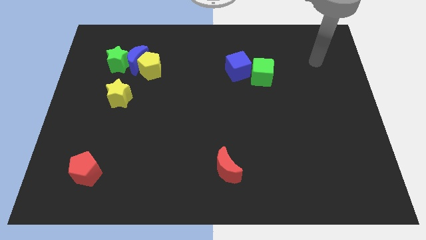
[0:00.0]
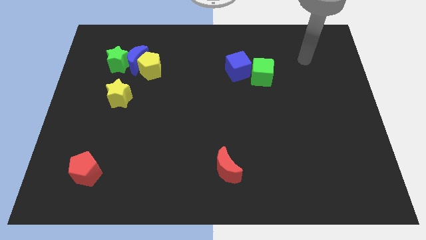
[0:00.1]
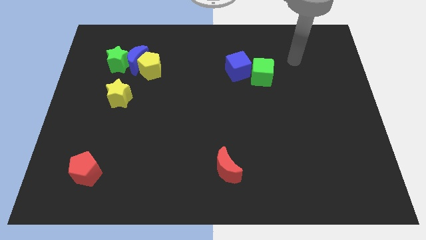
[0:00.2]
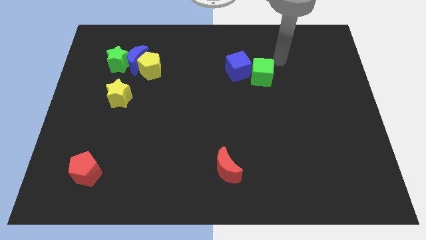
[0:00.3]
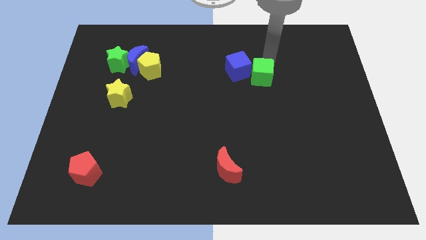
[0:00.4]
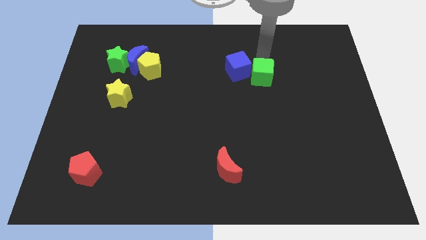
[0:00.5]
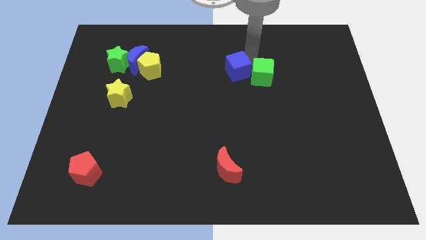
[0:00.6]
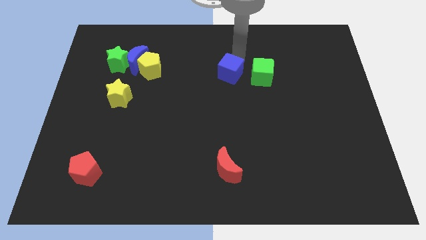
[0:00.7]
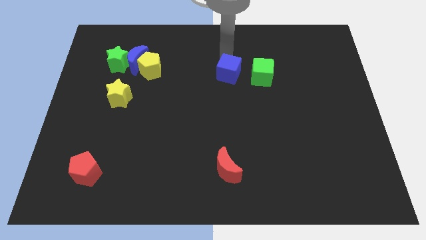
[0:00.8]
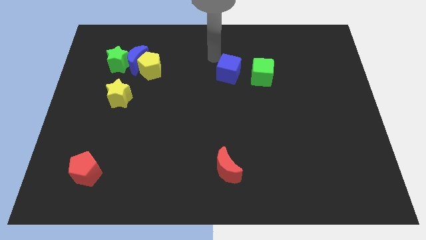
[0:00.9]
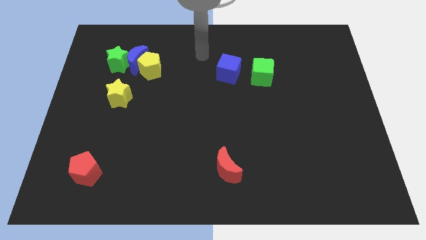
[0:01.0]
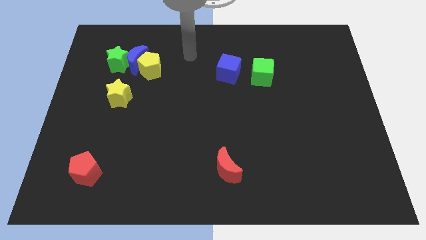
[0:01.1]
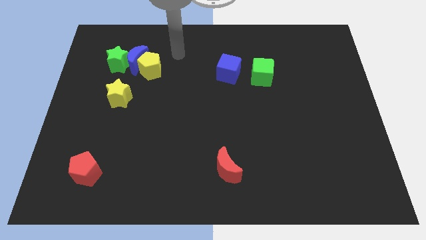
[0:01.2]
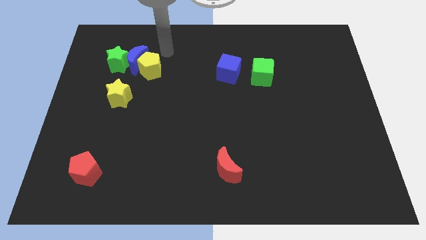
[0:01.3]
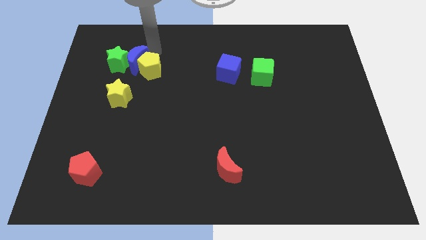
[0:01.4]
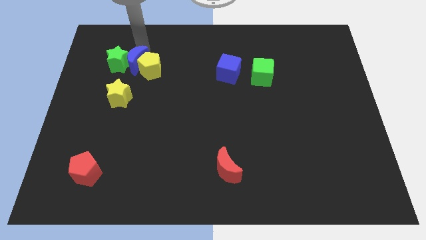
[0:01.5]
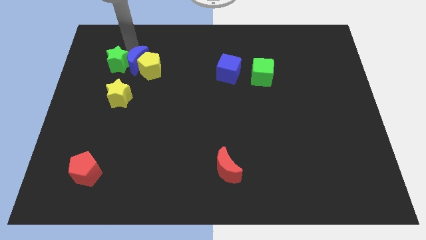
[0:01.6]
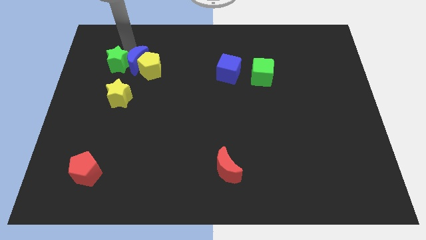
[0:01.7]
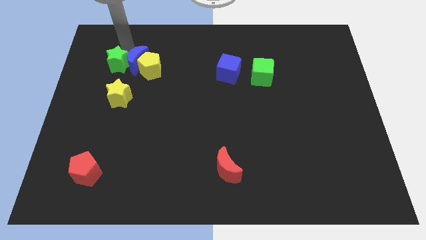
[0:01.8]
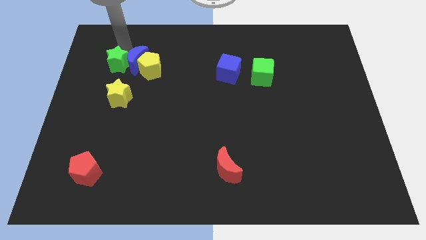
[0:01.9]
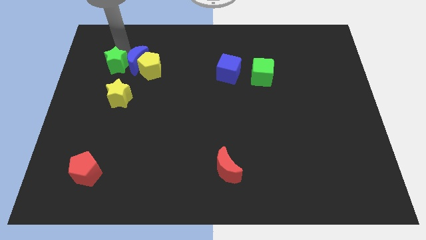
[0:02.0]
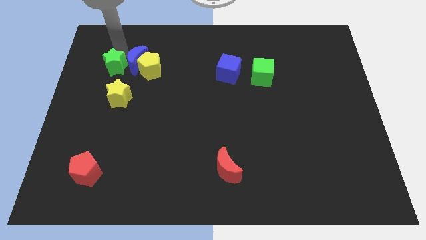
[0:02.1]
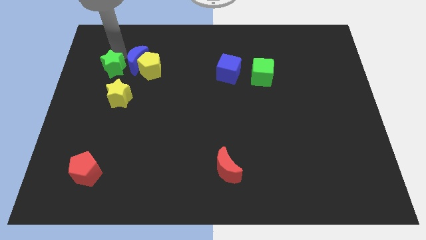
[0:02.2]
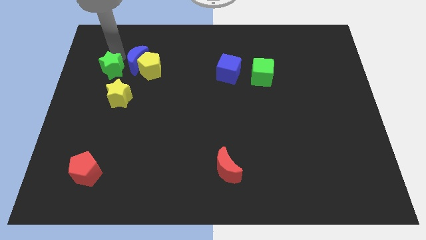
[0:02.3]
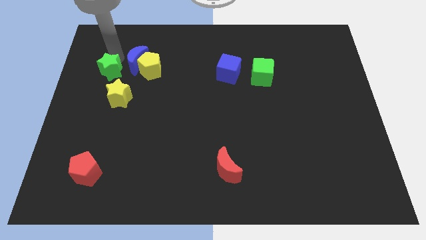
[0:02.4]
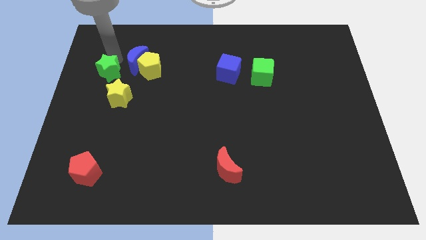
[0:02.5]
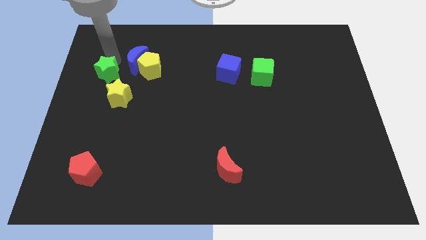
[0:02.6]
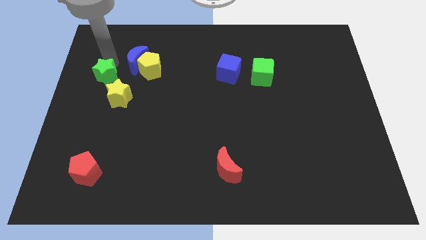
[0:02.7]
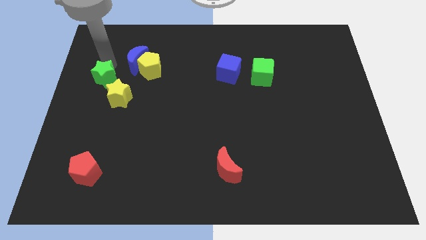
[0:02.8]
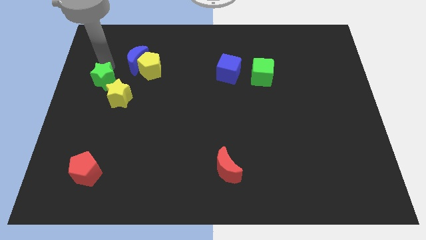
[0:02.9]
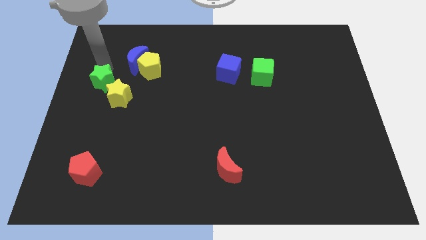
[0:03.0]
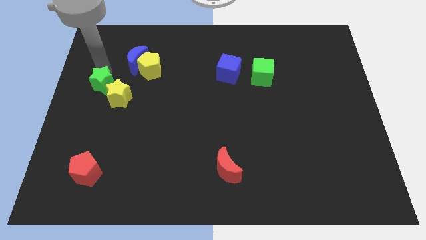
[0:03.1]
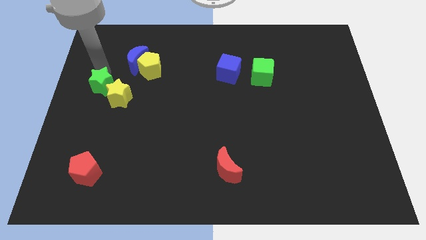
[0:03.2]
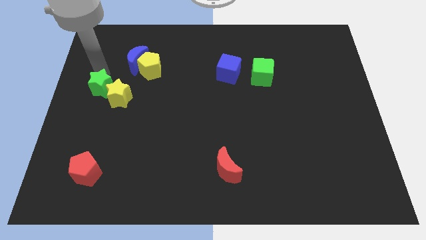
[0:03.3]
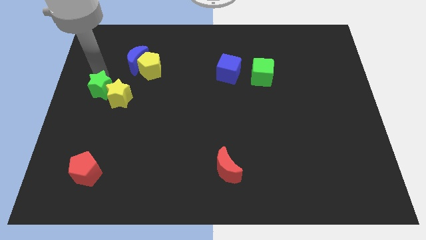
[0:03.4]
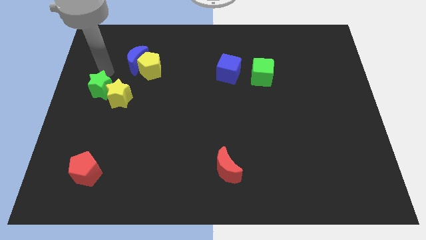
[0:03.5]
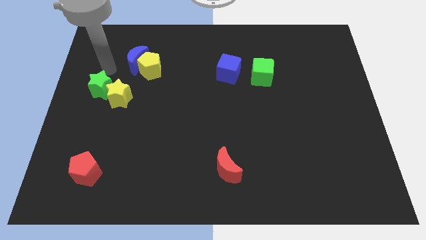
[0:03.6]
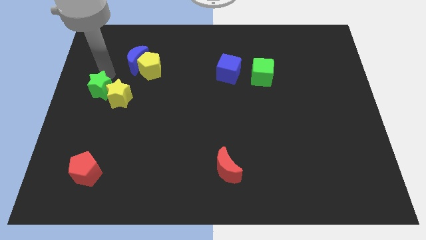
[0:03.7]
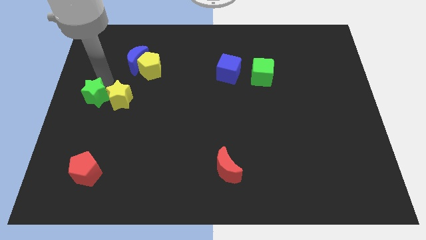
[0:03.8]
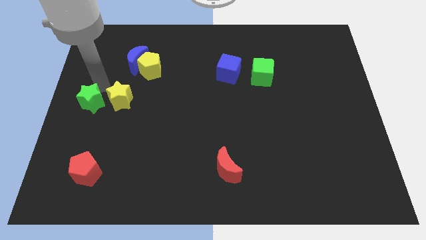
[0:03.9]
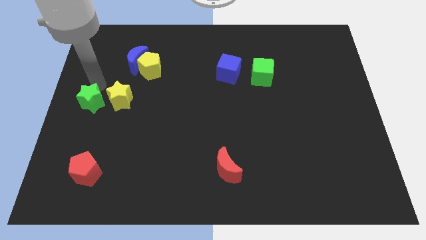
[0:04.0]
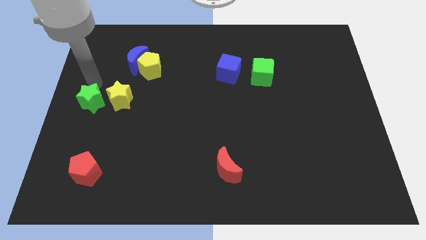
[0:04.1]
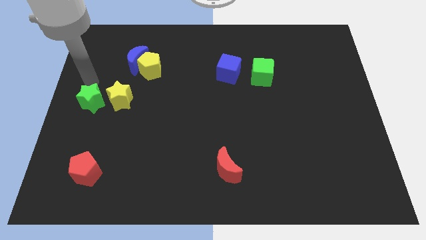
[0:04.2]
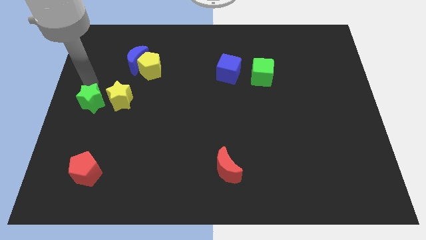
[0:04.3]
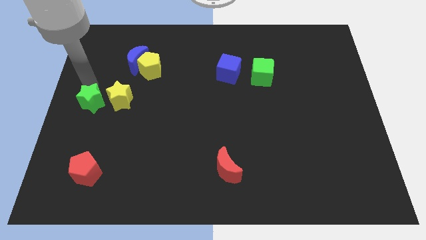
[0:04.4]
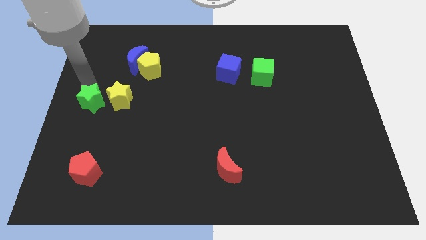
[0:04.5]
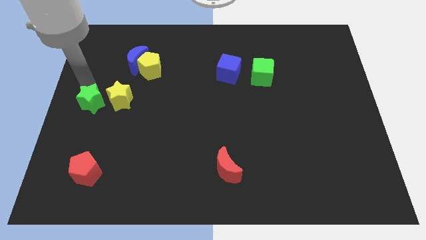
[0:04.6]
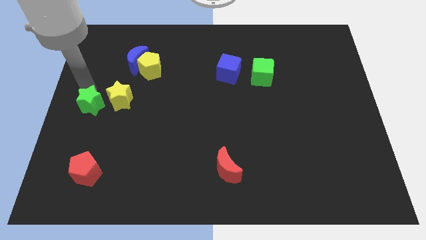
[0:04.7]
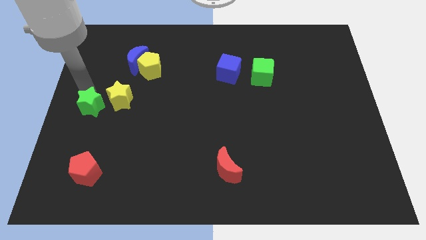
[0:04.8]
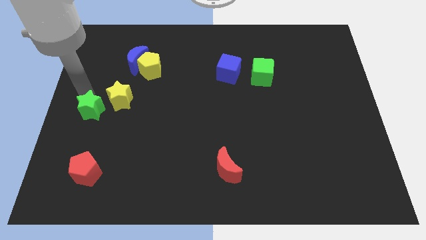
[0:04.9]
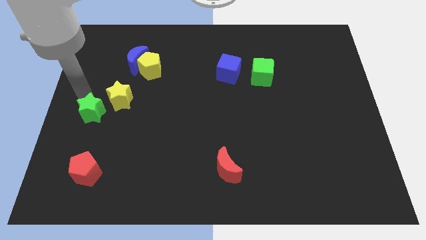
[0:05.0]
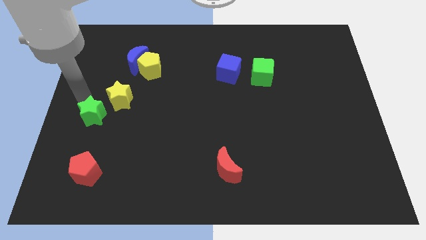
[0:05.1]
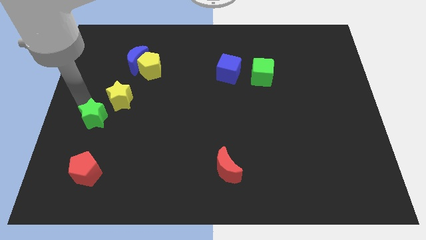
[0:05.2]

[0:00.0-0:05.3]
slide the green star to the bottom of the yellow star

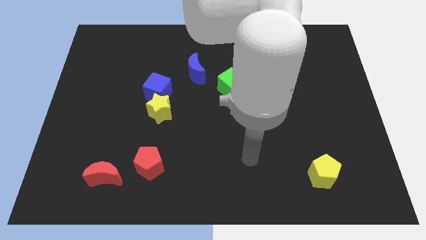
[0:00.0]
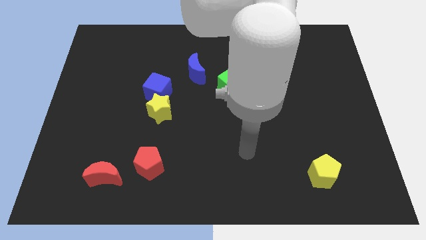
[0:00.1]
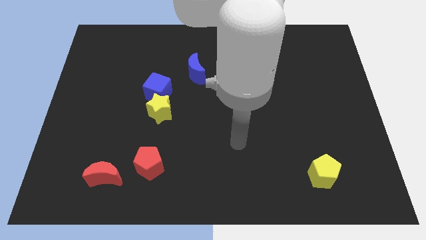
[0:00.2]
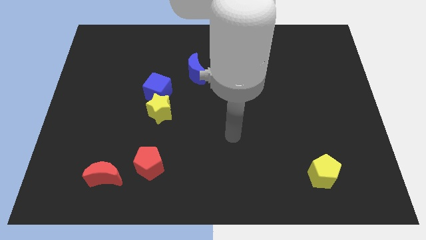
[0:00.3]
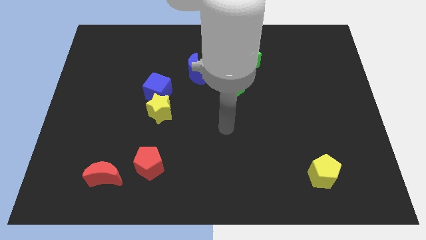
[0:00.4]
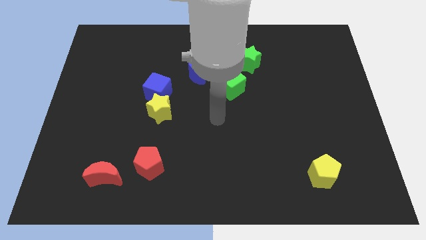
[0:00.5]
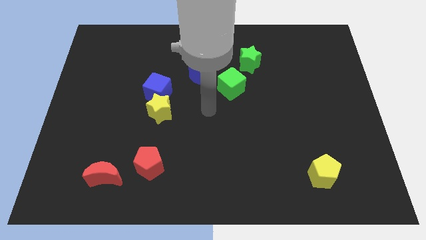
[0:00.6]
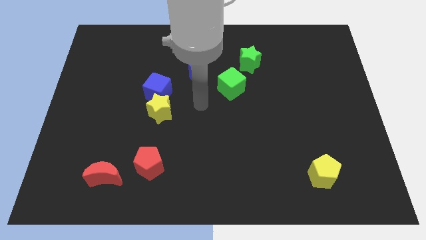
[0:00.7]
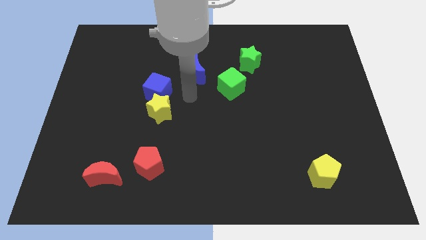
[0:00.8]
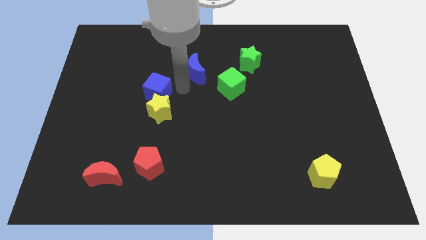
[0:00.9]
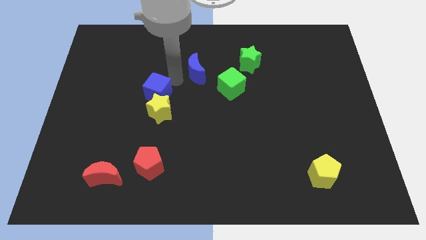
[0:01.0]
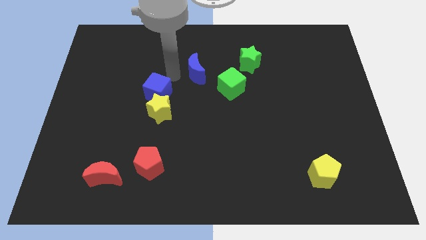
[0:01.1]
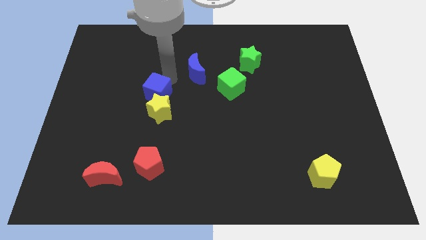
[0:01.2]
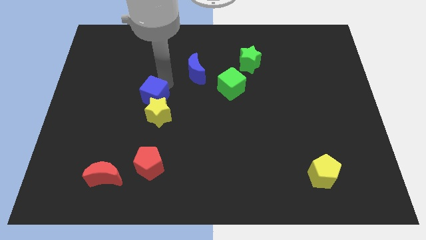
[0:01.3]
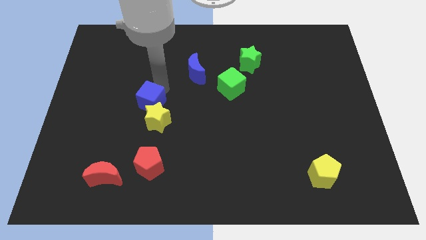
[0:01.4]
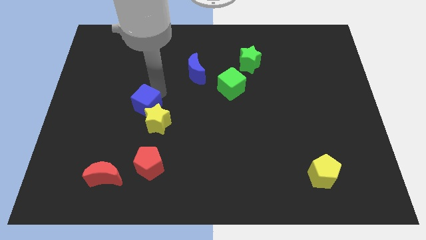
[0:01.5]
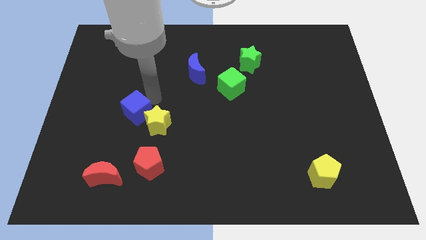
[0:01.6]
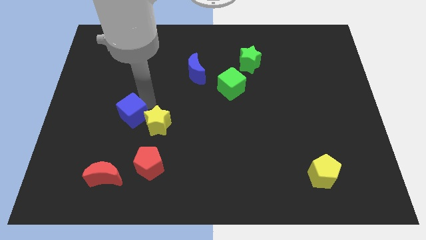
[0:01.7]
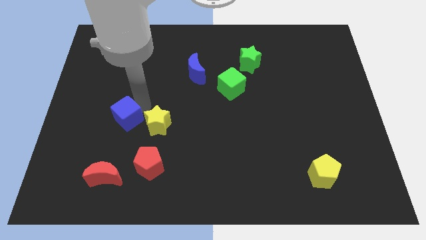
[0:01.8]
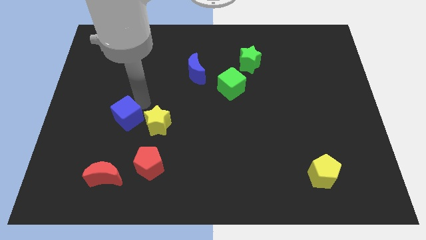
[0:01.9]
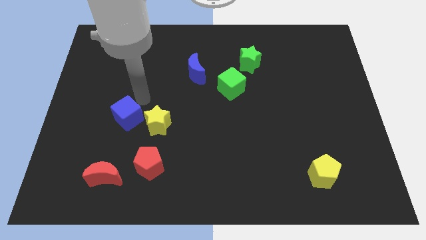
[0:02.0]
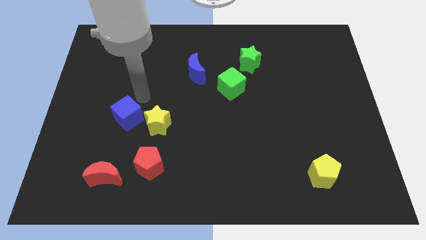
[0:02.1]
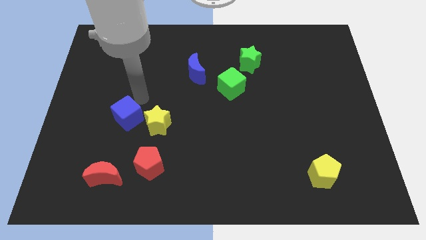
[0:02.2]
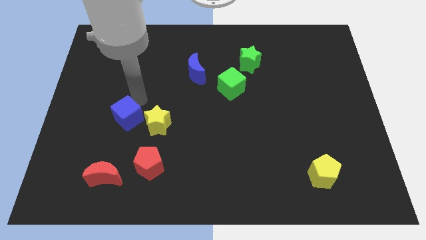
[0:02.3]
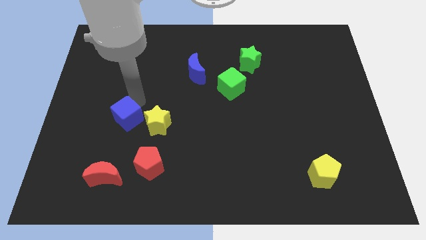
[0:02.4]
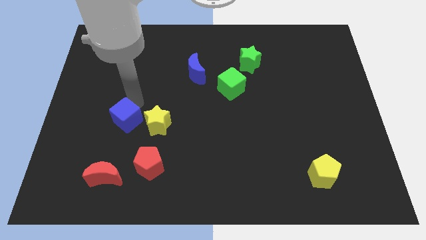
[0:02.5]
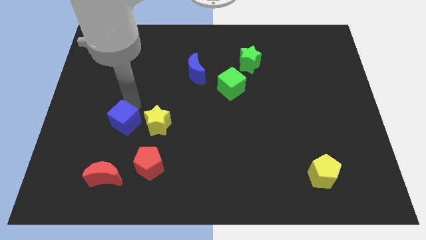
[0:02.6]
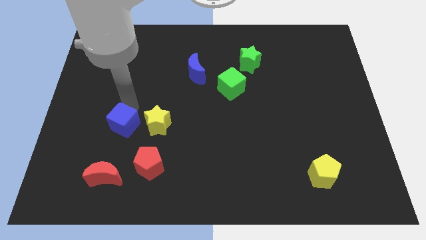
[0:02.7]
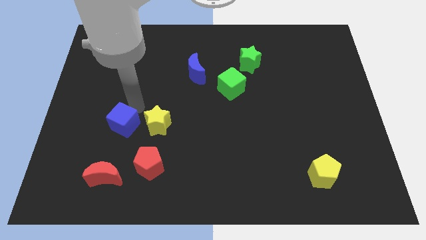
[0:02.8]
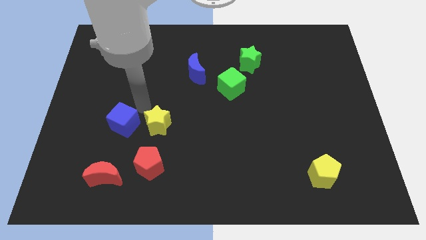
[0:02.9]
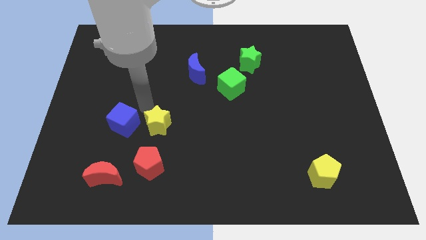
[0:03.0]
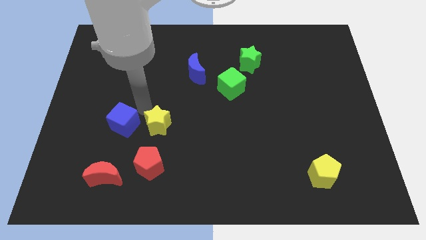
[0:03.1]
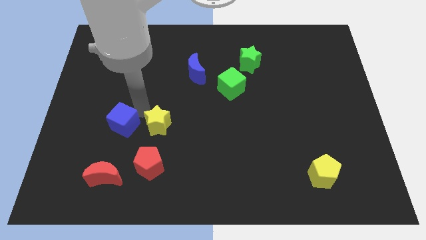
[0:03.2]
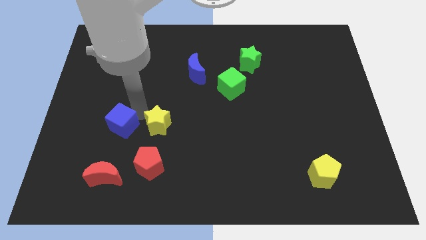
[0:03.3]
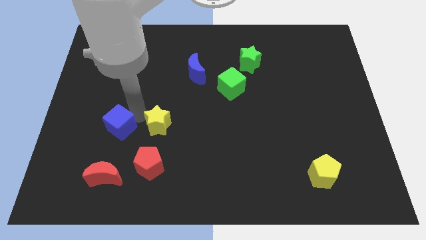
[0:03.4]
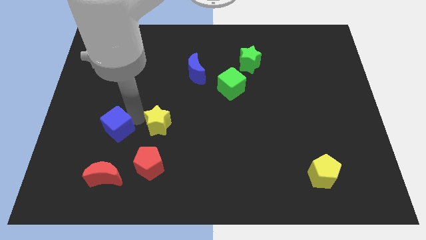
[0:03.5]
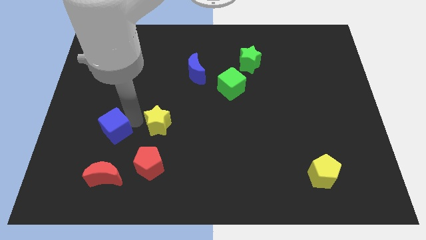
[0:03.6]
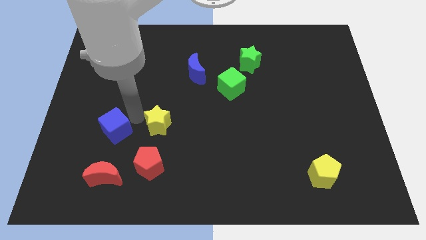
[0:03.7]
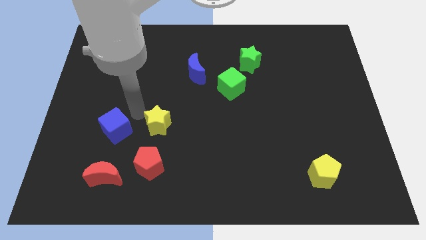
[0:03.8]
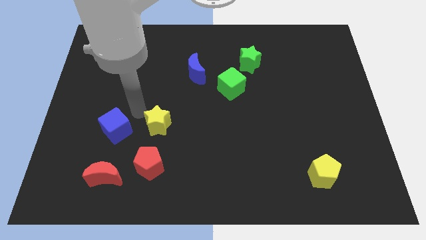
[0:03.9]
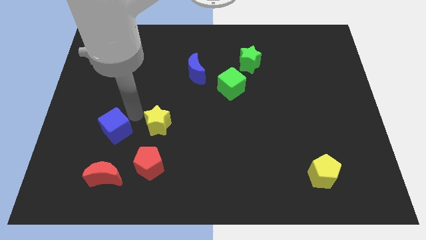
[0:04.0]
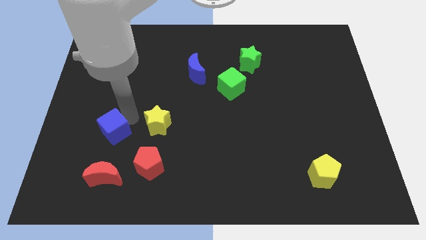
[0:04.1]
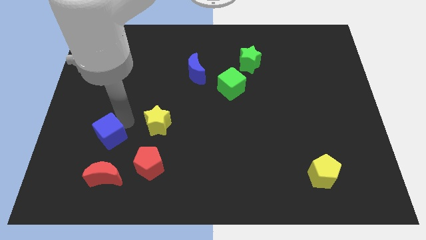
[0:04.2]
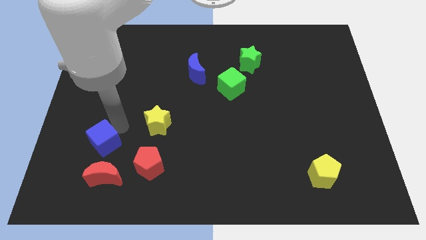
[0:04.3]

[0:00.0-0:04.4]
slide the blue cube to the top left side of the red moon
